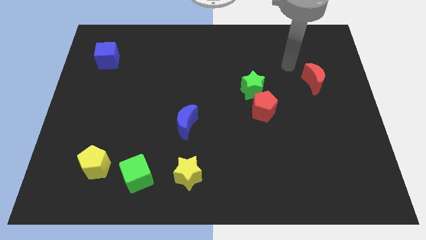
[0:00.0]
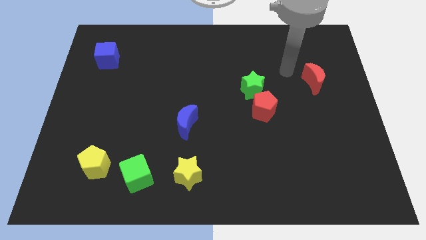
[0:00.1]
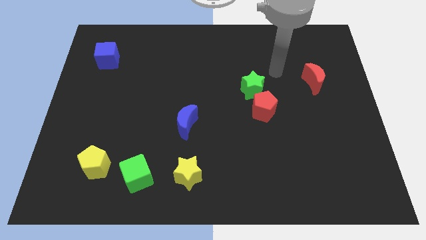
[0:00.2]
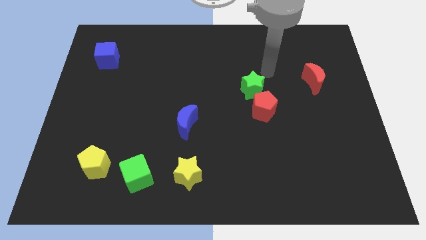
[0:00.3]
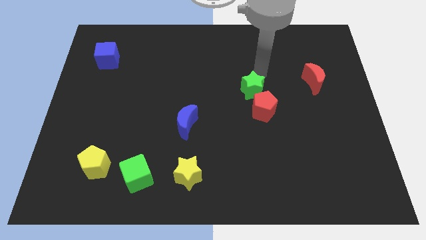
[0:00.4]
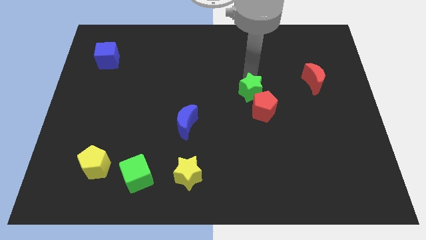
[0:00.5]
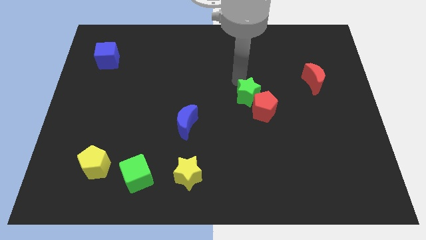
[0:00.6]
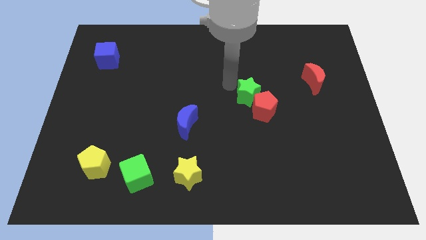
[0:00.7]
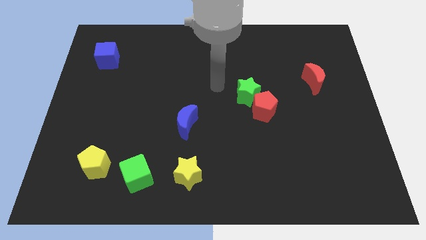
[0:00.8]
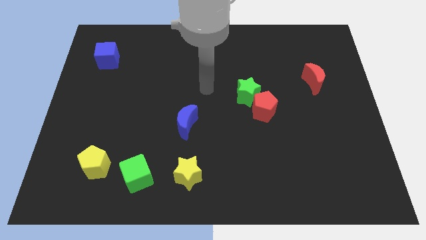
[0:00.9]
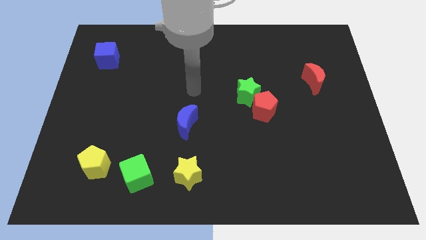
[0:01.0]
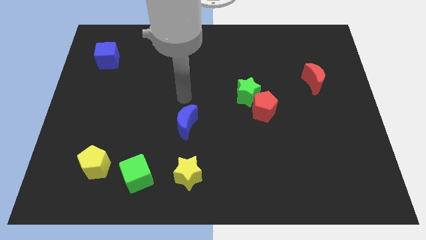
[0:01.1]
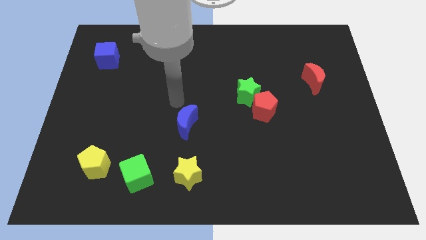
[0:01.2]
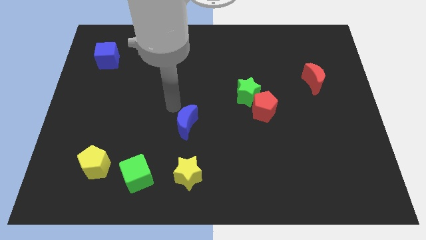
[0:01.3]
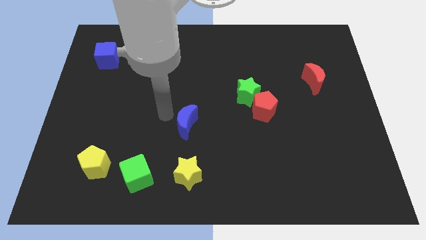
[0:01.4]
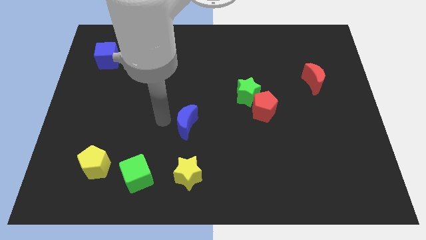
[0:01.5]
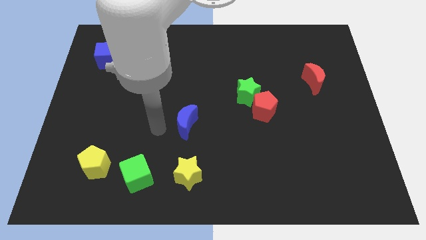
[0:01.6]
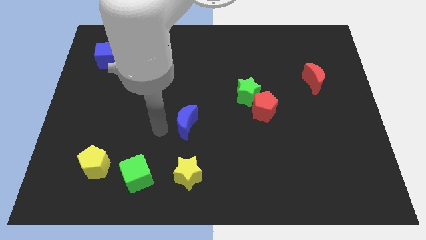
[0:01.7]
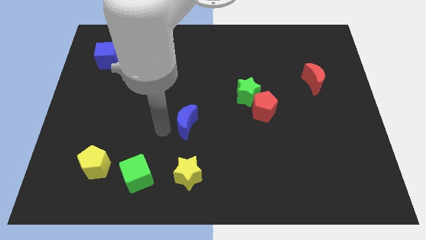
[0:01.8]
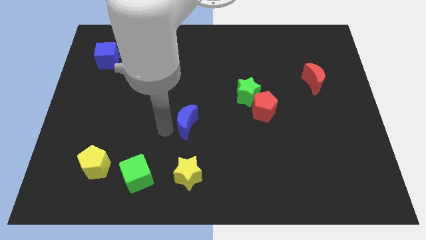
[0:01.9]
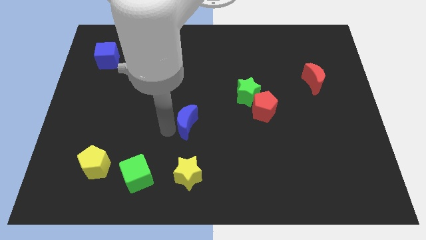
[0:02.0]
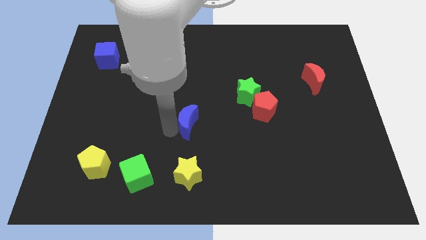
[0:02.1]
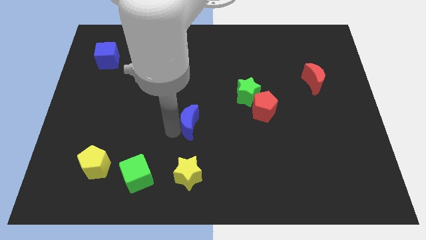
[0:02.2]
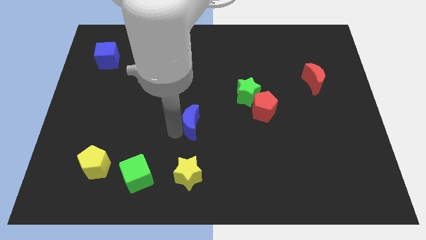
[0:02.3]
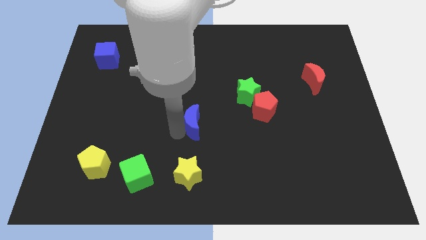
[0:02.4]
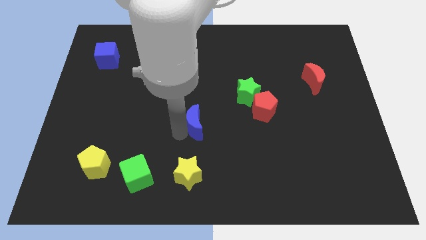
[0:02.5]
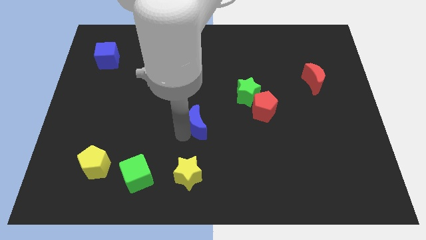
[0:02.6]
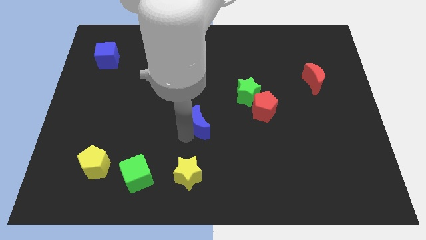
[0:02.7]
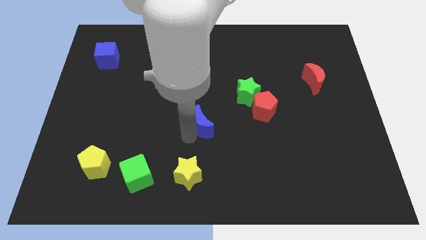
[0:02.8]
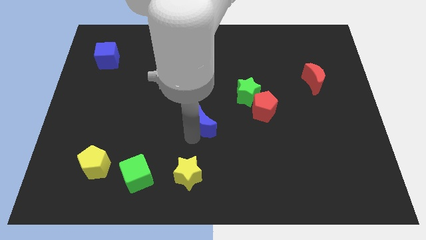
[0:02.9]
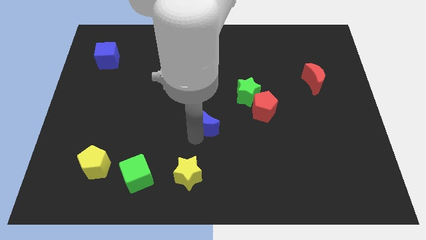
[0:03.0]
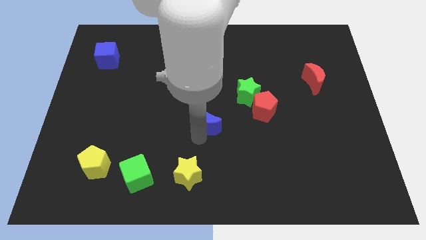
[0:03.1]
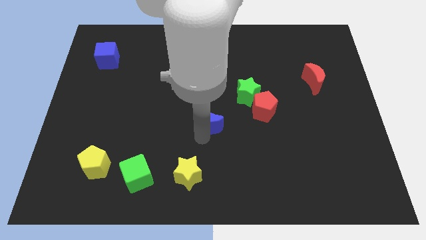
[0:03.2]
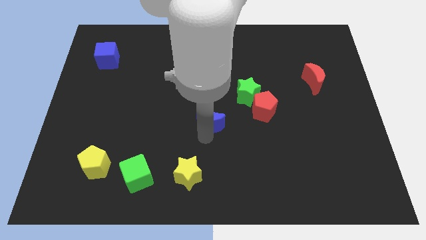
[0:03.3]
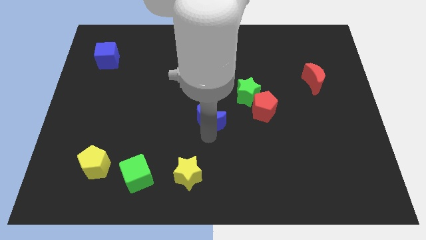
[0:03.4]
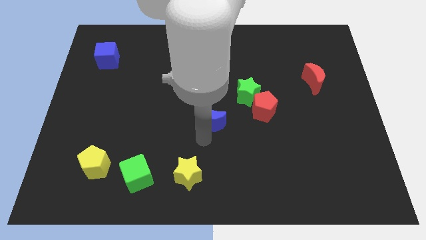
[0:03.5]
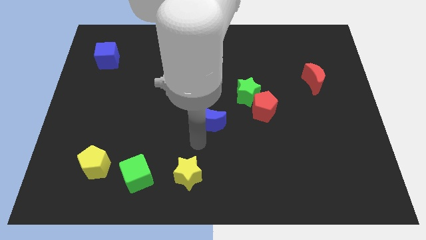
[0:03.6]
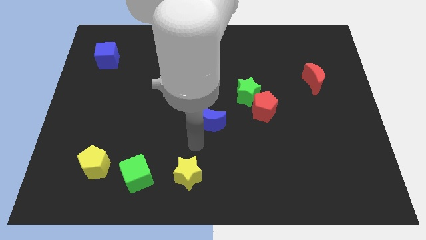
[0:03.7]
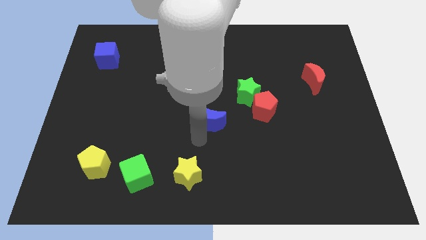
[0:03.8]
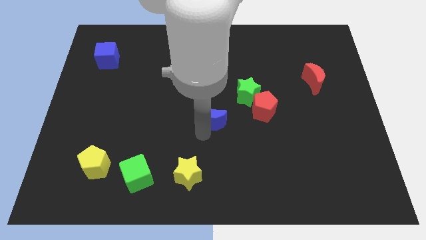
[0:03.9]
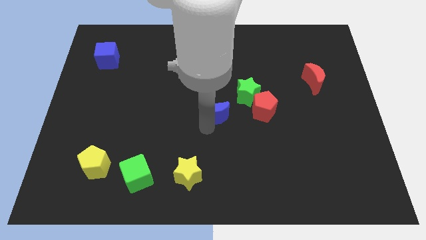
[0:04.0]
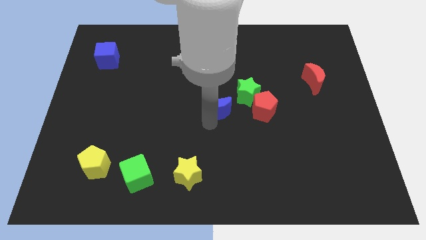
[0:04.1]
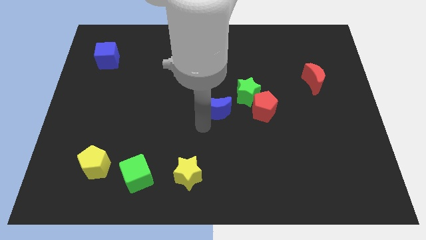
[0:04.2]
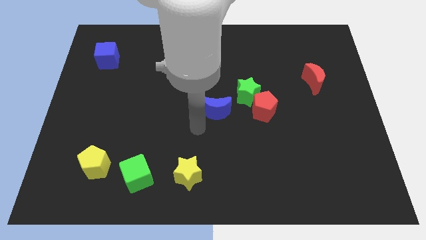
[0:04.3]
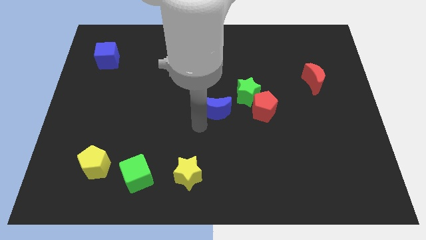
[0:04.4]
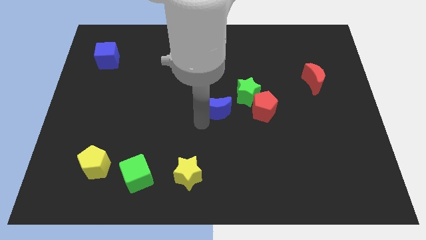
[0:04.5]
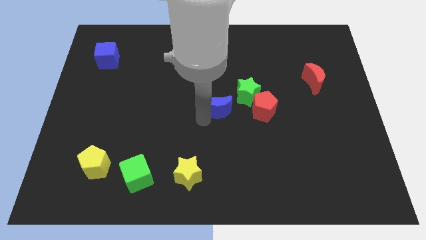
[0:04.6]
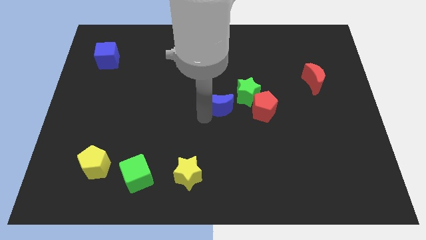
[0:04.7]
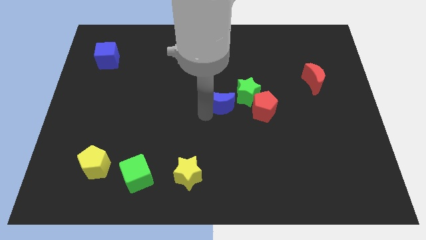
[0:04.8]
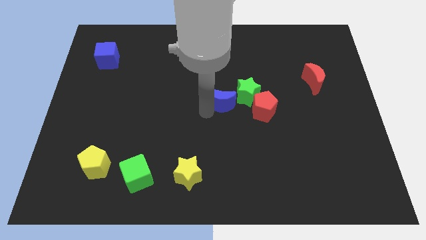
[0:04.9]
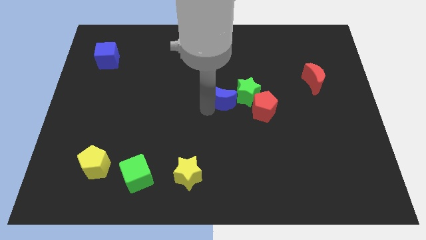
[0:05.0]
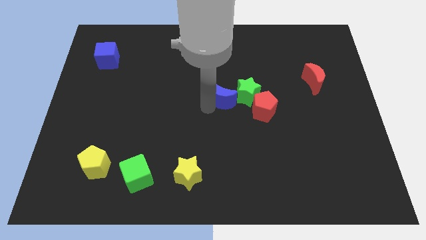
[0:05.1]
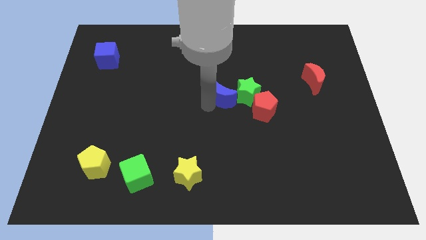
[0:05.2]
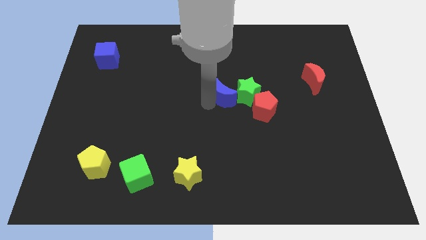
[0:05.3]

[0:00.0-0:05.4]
put the blue moon close to the green star

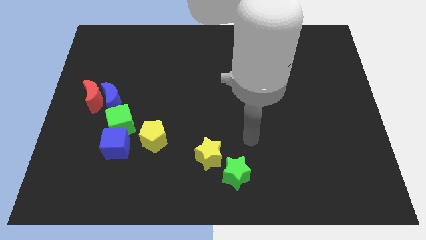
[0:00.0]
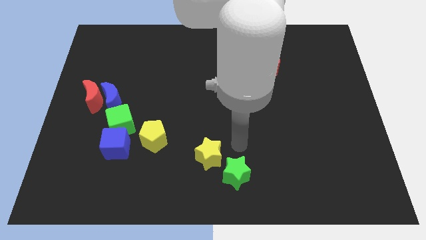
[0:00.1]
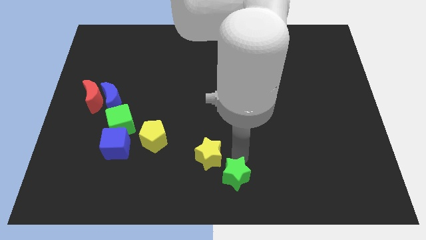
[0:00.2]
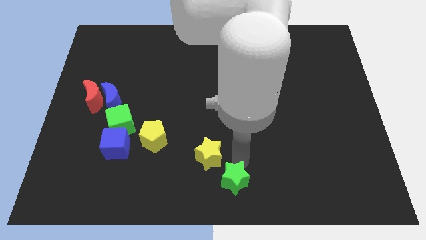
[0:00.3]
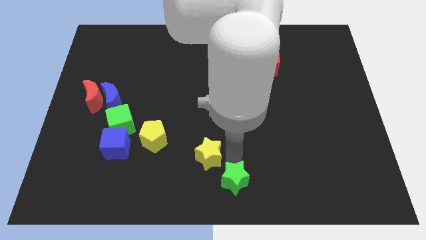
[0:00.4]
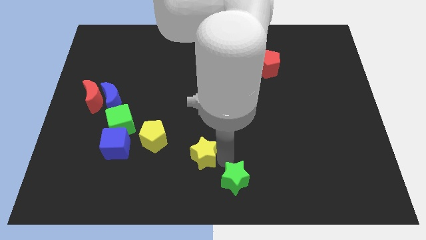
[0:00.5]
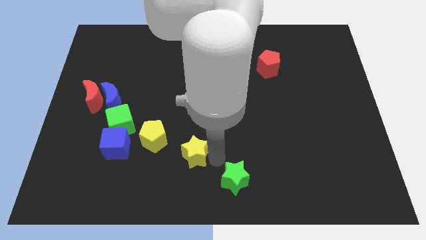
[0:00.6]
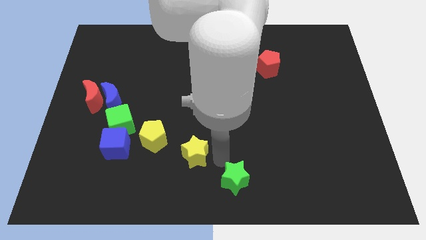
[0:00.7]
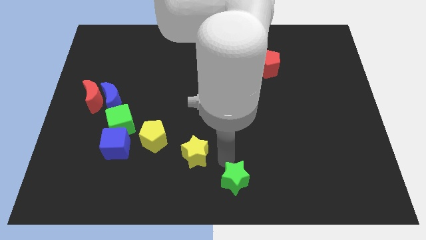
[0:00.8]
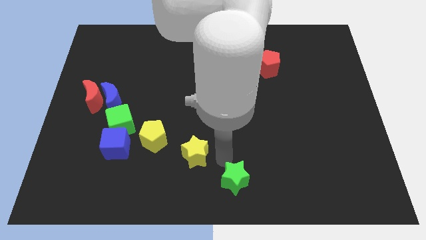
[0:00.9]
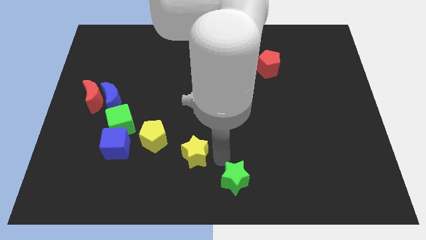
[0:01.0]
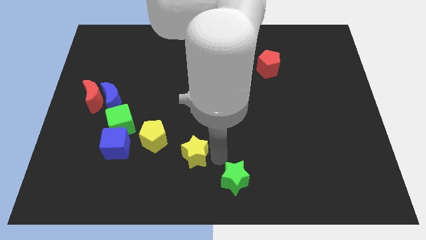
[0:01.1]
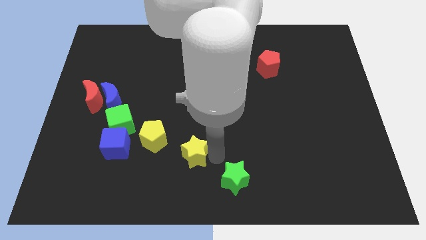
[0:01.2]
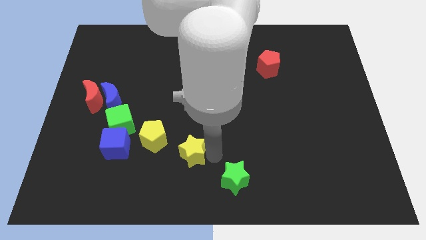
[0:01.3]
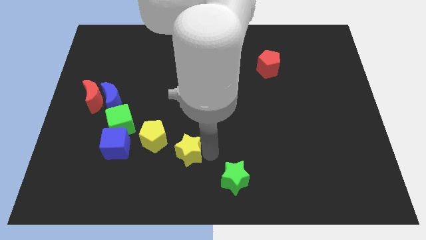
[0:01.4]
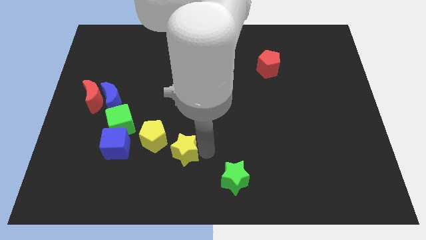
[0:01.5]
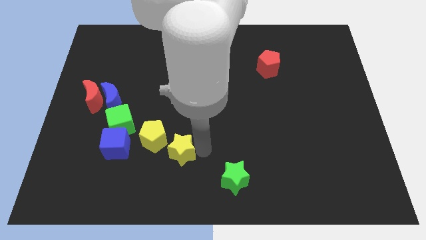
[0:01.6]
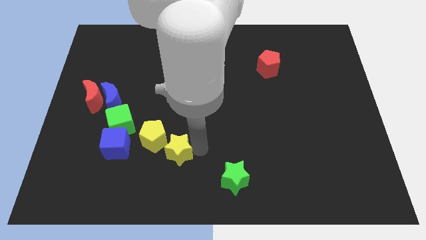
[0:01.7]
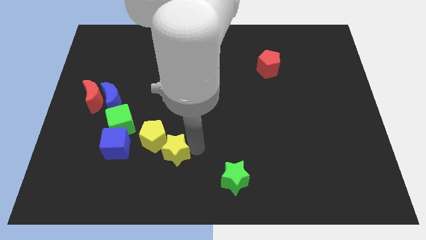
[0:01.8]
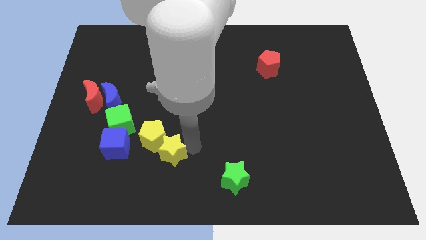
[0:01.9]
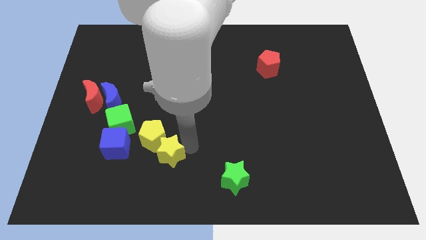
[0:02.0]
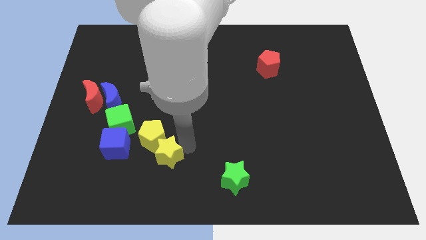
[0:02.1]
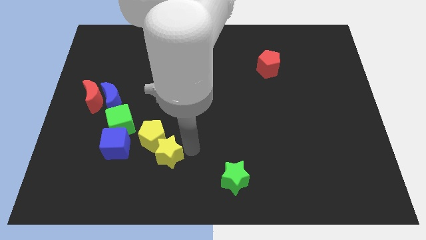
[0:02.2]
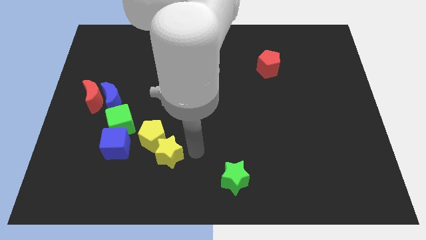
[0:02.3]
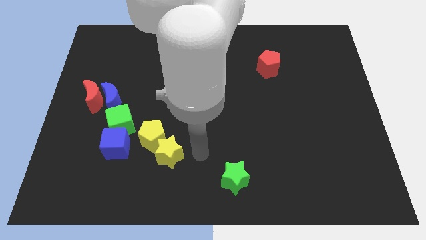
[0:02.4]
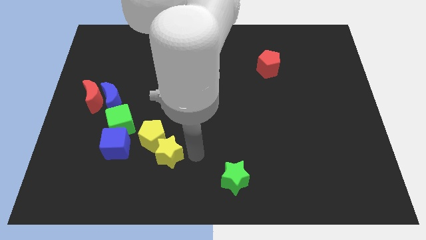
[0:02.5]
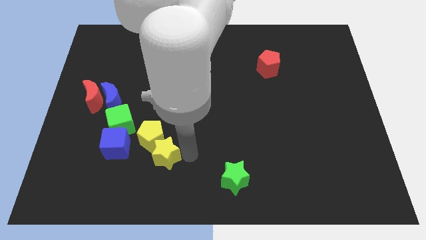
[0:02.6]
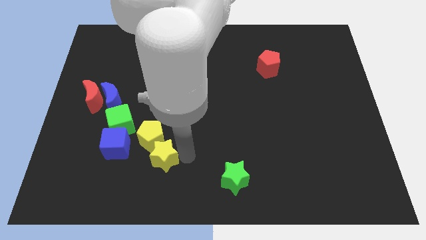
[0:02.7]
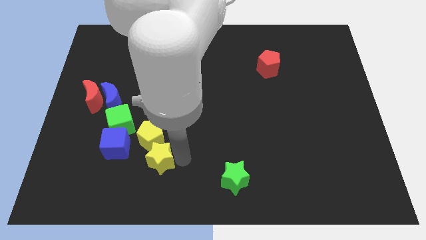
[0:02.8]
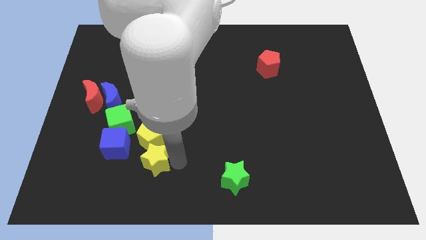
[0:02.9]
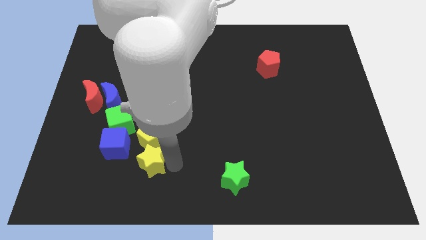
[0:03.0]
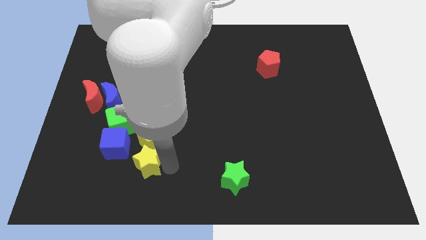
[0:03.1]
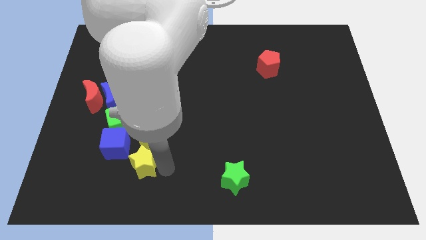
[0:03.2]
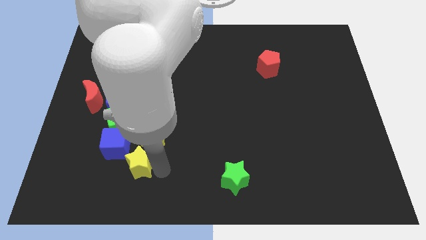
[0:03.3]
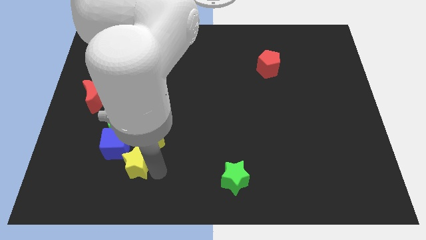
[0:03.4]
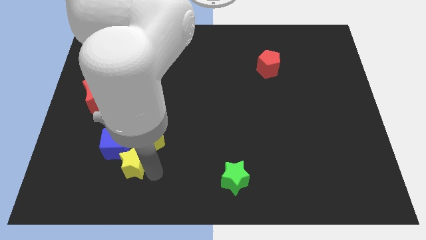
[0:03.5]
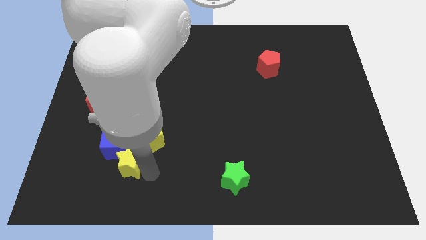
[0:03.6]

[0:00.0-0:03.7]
put the yellow star next to the blue cube
